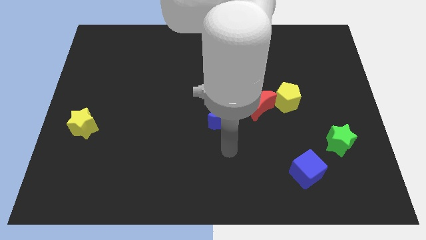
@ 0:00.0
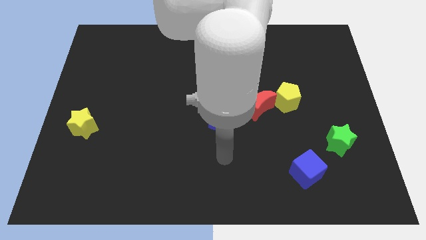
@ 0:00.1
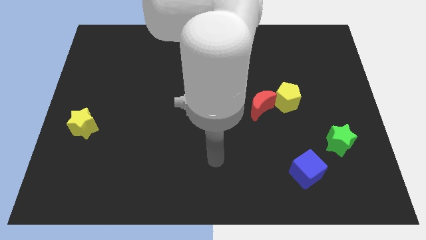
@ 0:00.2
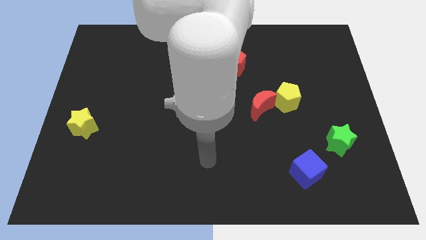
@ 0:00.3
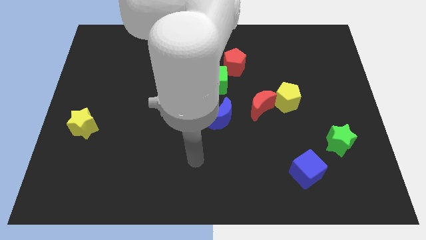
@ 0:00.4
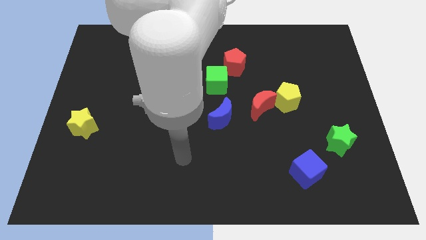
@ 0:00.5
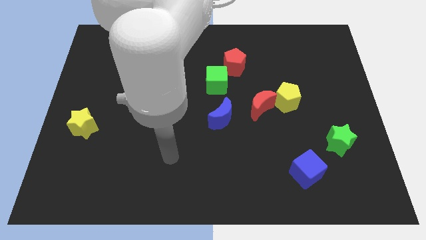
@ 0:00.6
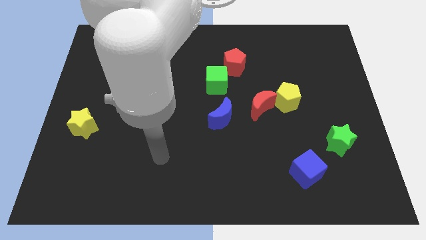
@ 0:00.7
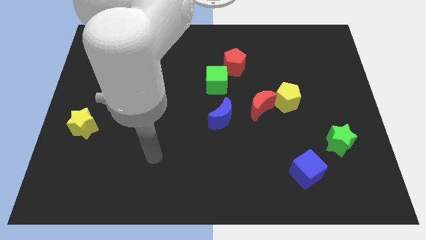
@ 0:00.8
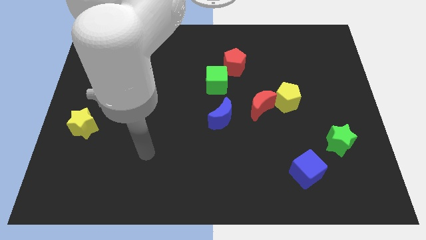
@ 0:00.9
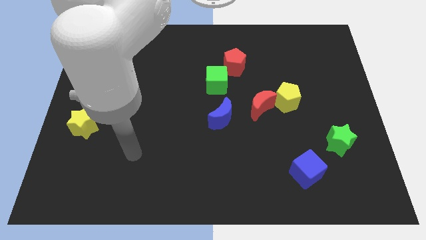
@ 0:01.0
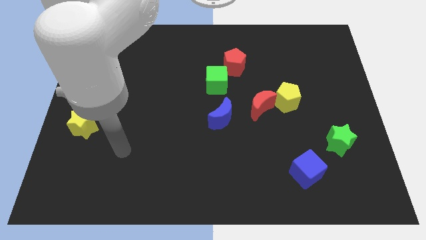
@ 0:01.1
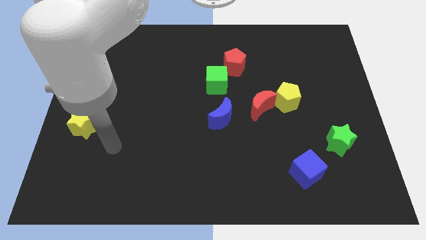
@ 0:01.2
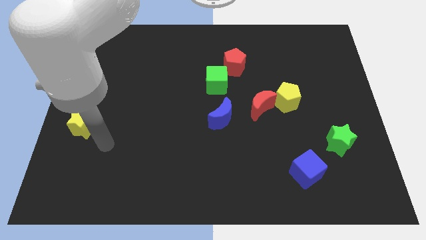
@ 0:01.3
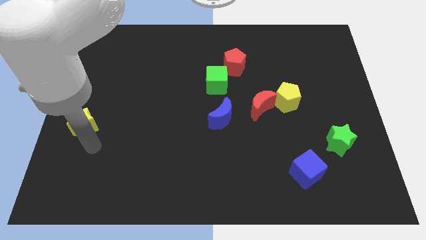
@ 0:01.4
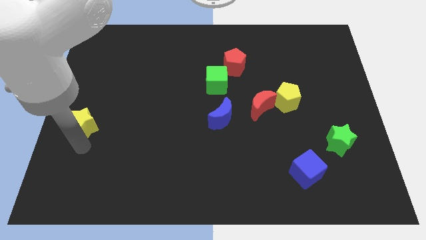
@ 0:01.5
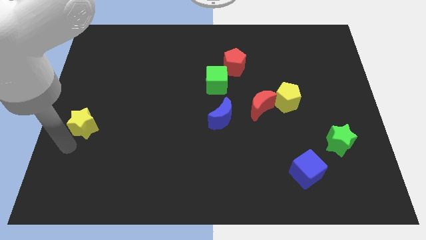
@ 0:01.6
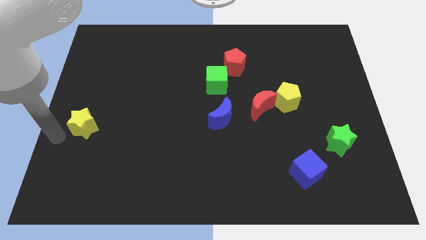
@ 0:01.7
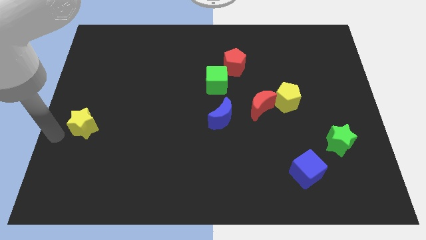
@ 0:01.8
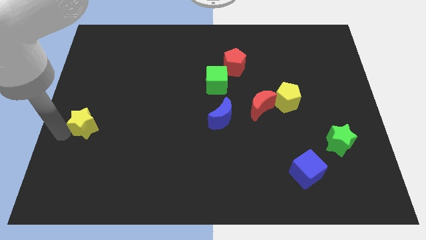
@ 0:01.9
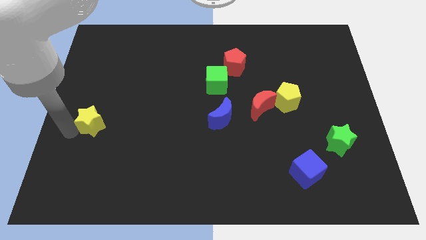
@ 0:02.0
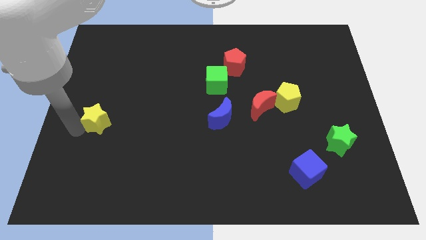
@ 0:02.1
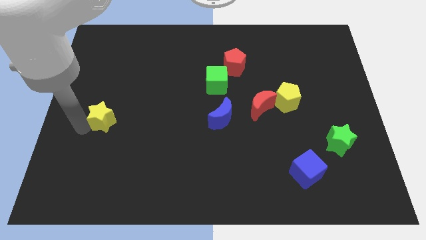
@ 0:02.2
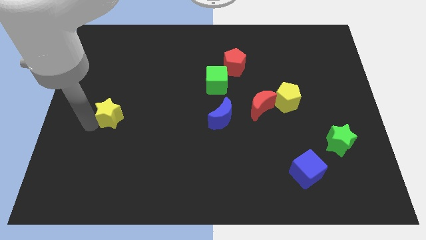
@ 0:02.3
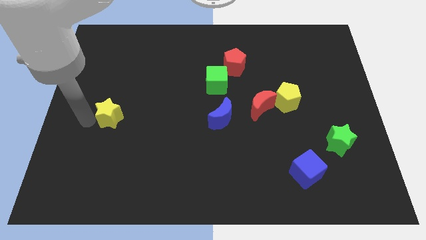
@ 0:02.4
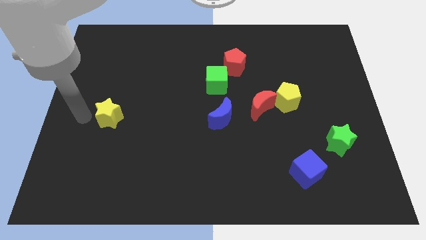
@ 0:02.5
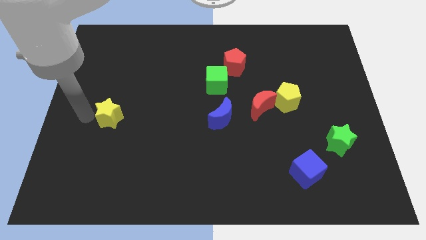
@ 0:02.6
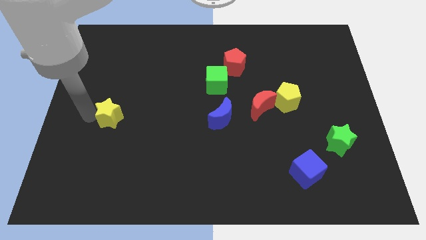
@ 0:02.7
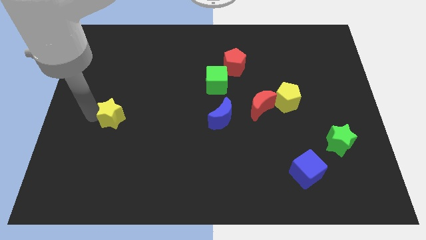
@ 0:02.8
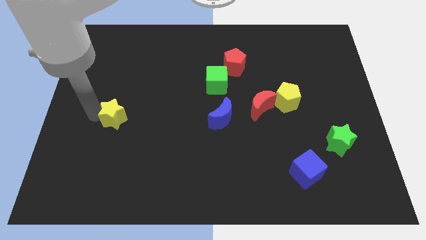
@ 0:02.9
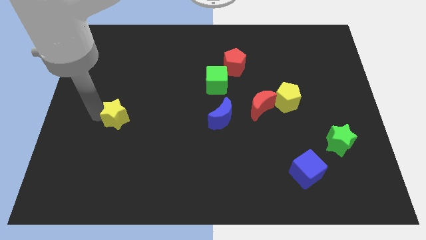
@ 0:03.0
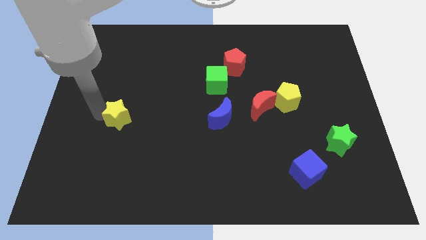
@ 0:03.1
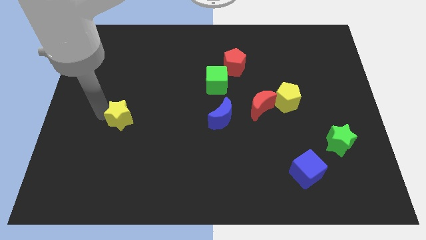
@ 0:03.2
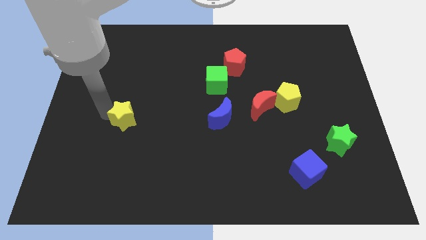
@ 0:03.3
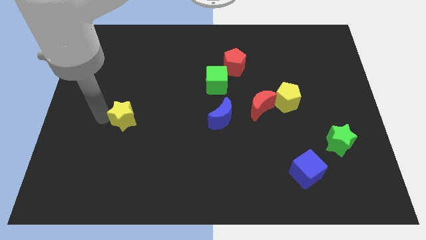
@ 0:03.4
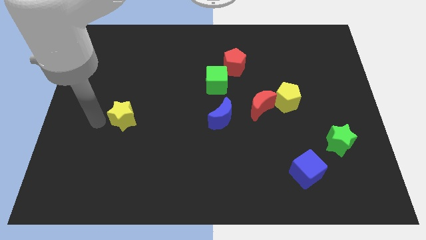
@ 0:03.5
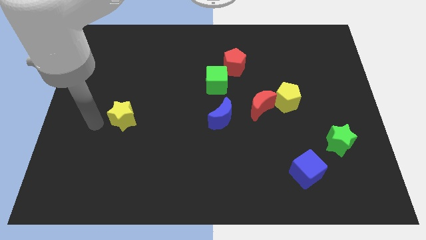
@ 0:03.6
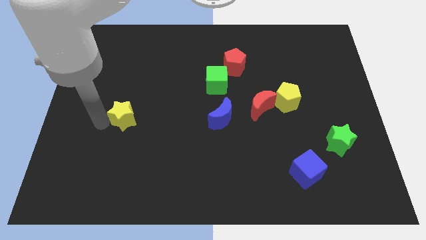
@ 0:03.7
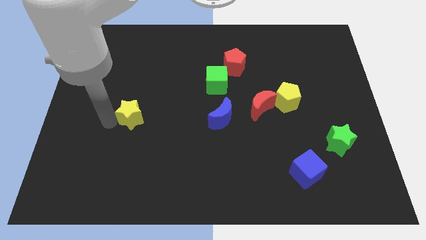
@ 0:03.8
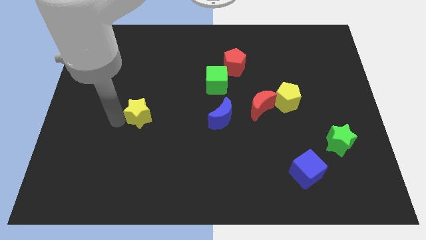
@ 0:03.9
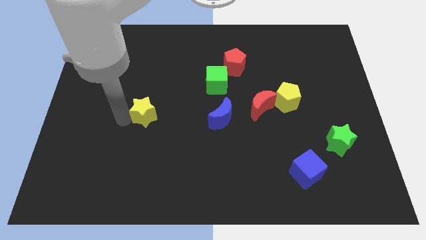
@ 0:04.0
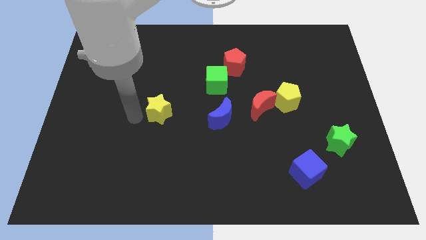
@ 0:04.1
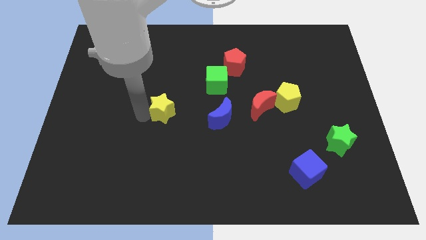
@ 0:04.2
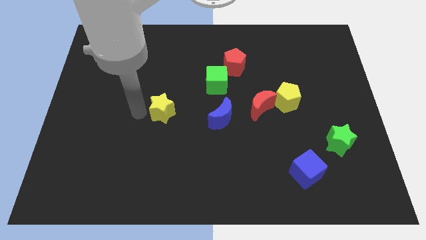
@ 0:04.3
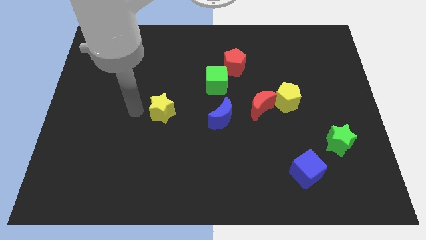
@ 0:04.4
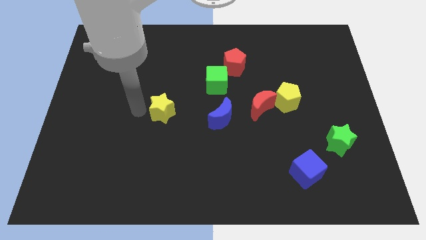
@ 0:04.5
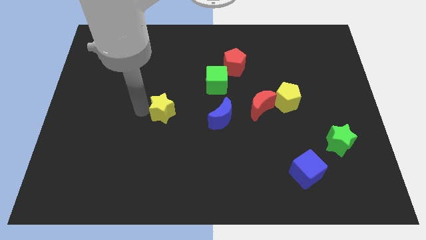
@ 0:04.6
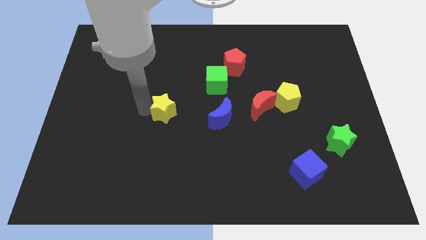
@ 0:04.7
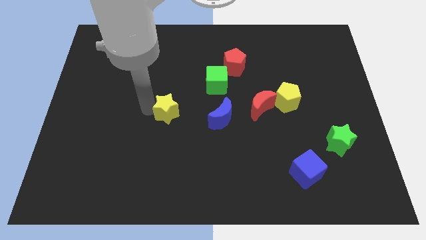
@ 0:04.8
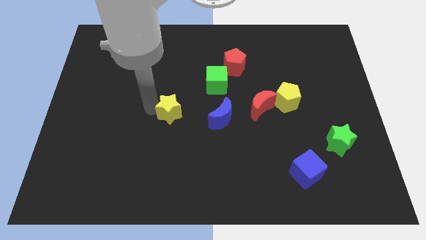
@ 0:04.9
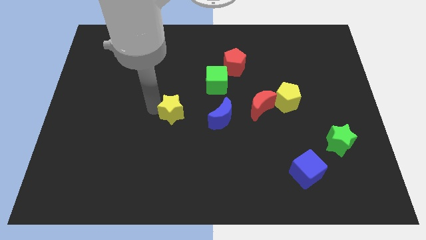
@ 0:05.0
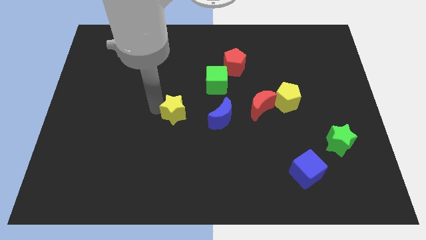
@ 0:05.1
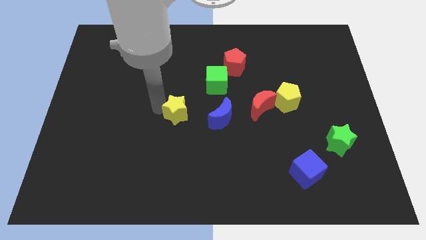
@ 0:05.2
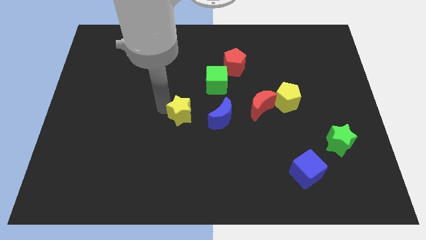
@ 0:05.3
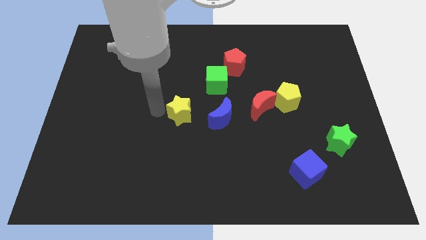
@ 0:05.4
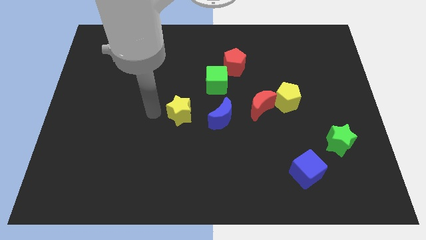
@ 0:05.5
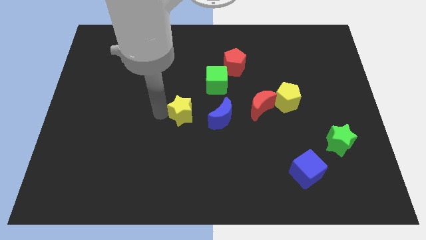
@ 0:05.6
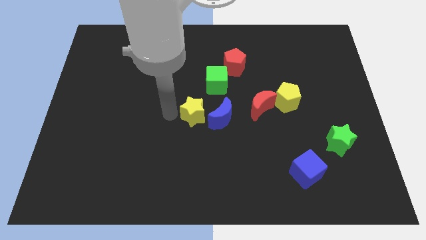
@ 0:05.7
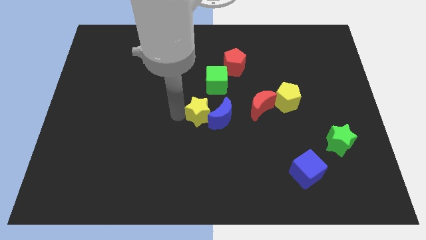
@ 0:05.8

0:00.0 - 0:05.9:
slide the yellow star to the blue moon

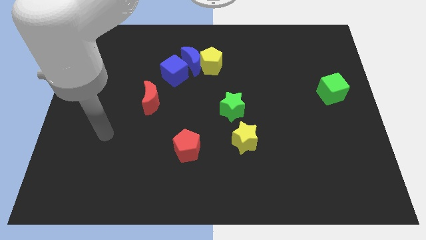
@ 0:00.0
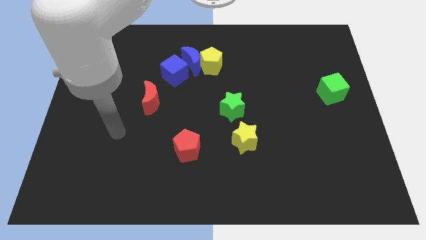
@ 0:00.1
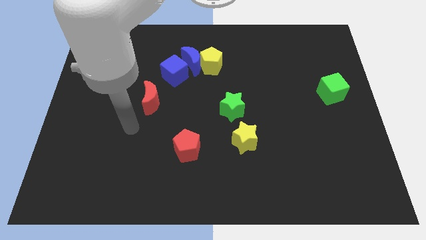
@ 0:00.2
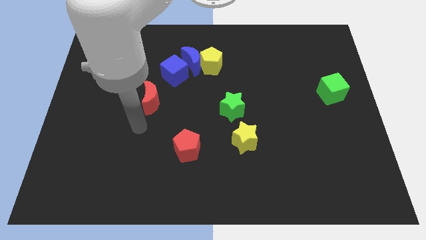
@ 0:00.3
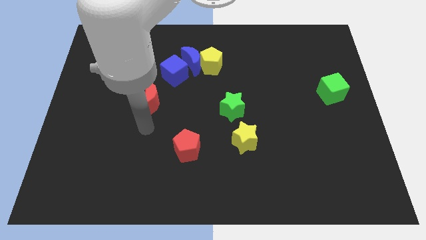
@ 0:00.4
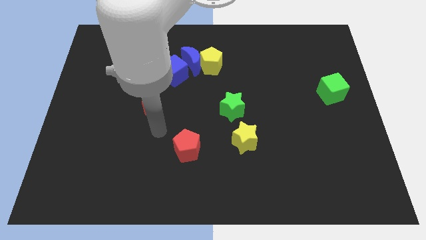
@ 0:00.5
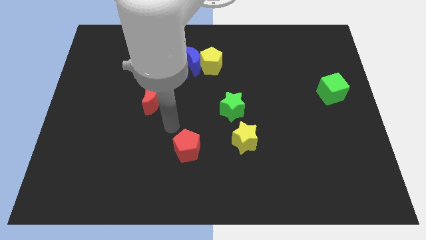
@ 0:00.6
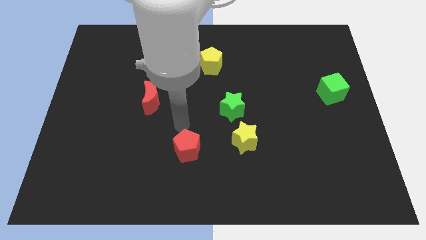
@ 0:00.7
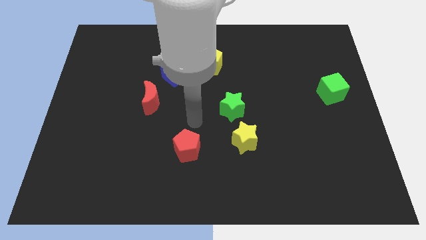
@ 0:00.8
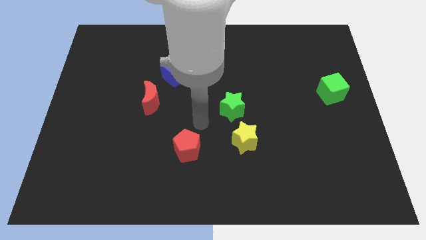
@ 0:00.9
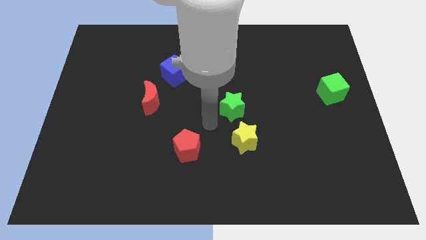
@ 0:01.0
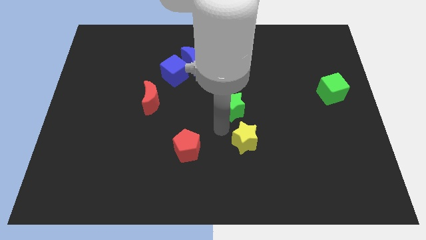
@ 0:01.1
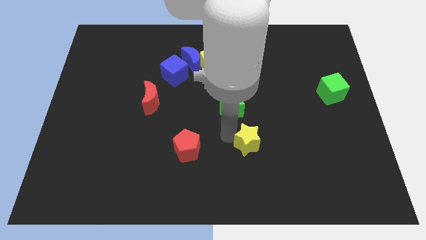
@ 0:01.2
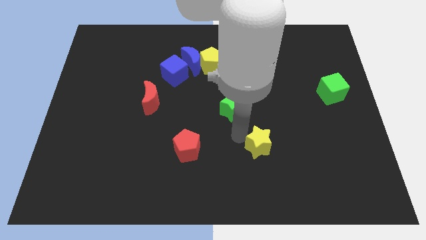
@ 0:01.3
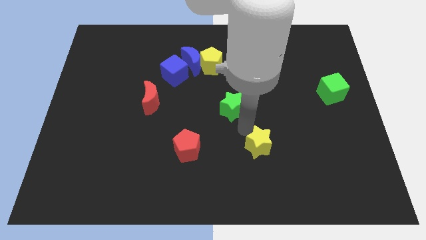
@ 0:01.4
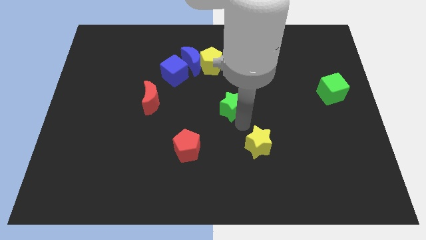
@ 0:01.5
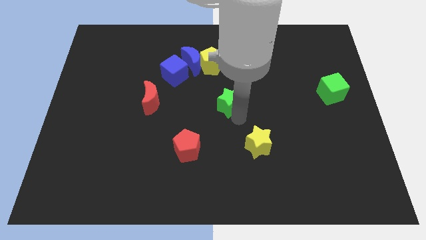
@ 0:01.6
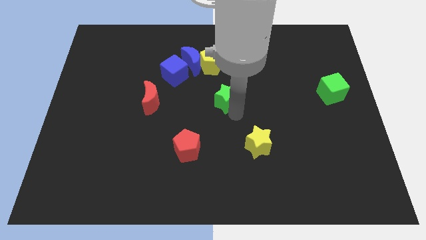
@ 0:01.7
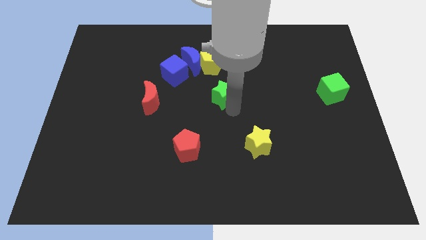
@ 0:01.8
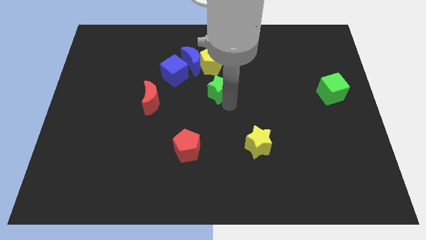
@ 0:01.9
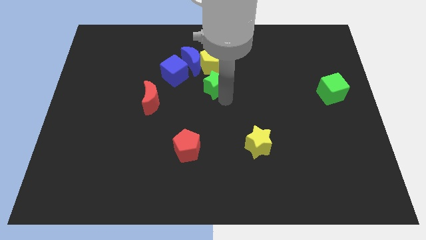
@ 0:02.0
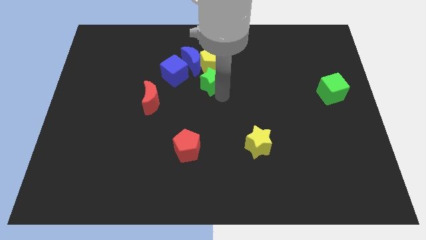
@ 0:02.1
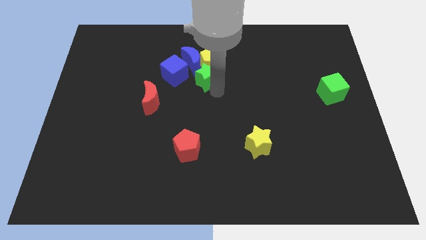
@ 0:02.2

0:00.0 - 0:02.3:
put the green star to the yellow pentagon
